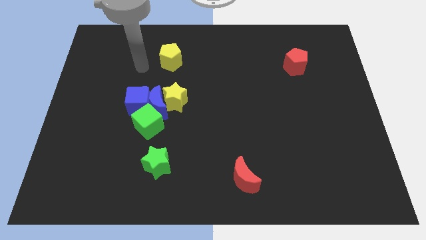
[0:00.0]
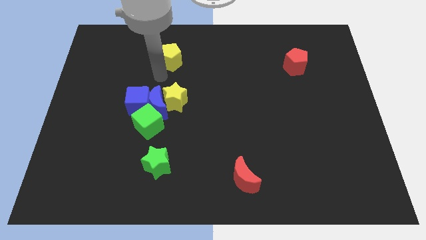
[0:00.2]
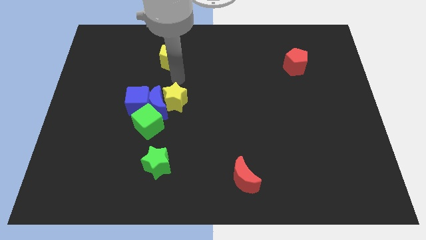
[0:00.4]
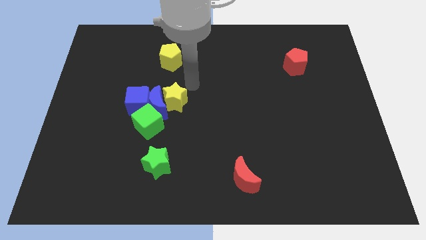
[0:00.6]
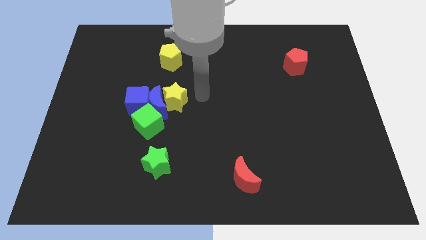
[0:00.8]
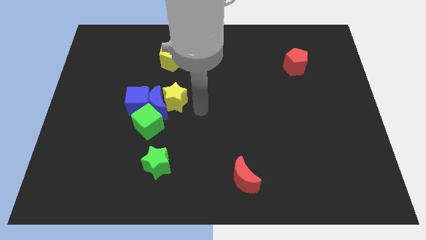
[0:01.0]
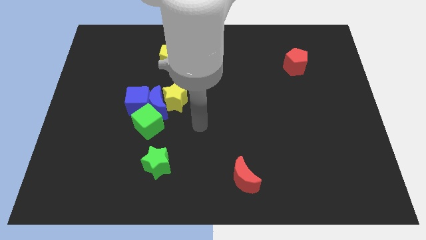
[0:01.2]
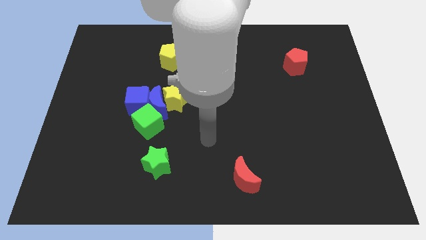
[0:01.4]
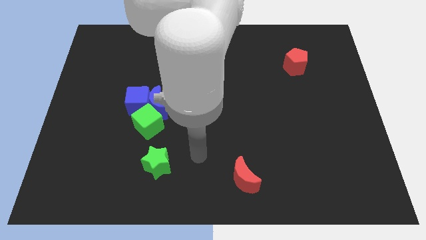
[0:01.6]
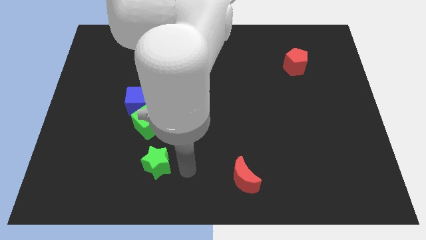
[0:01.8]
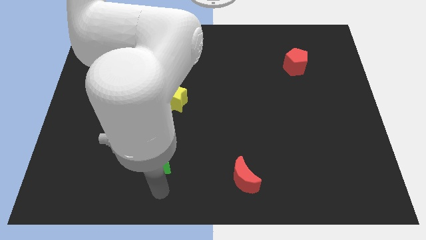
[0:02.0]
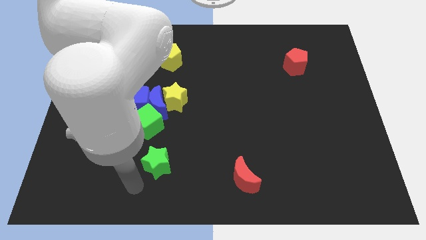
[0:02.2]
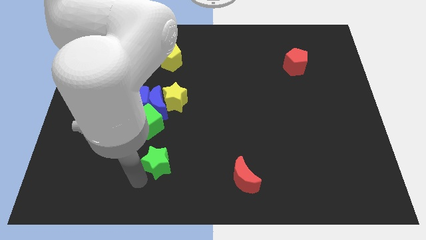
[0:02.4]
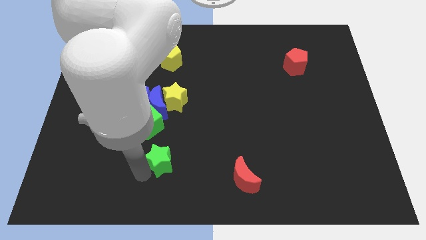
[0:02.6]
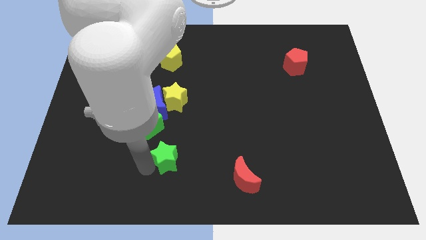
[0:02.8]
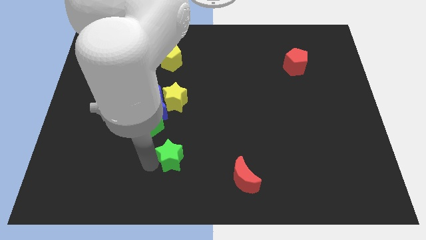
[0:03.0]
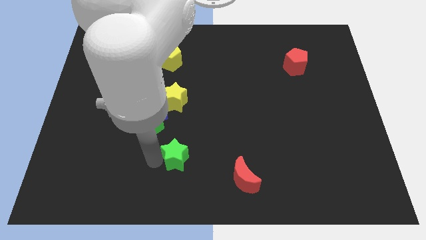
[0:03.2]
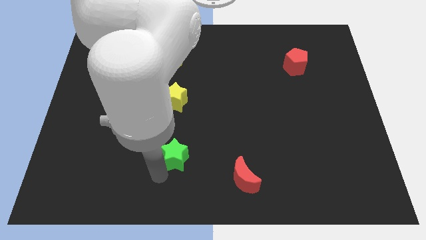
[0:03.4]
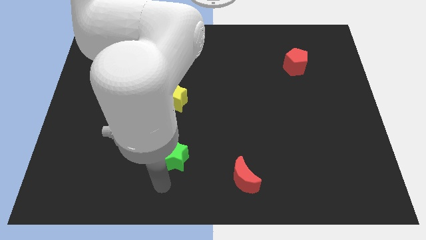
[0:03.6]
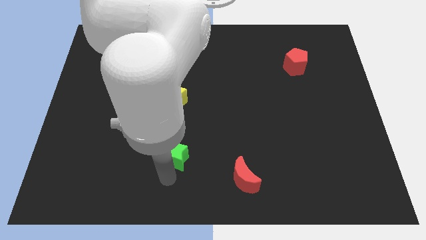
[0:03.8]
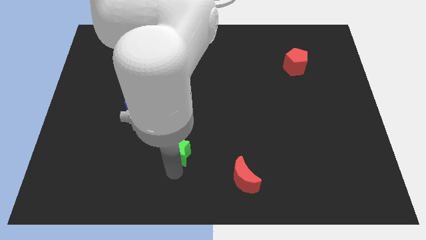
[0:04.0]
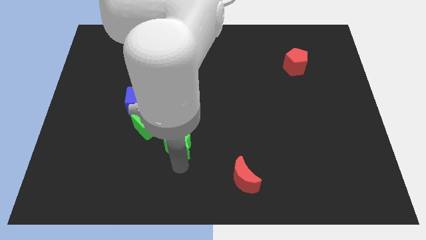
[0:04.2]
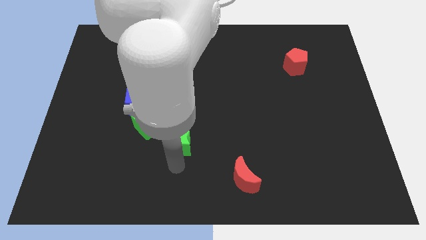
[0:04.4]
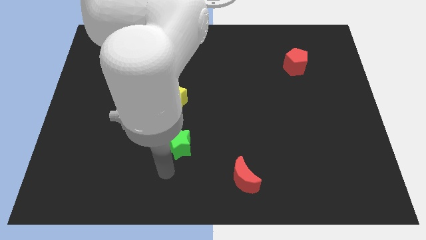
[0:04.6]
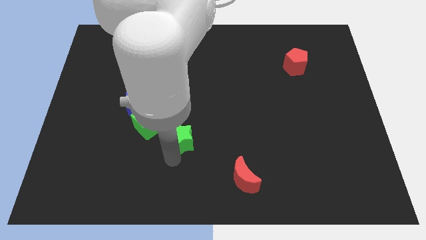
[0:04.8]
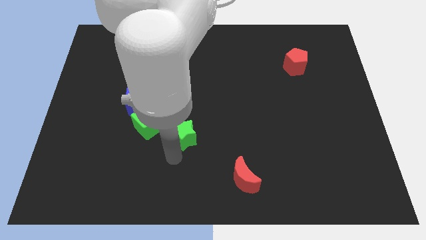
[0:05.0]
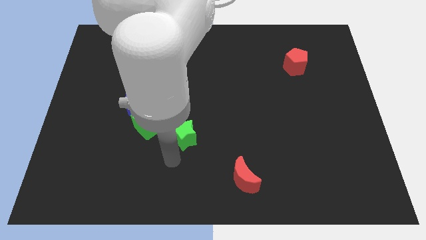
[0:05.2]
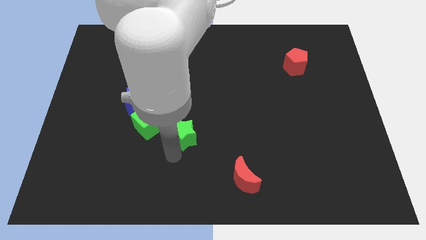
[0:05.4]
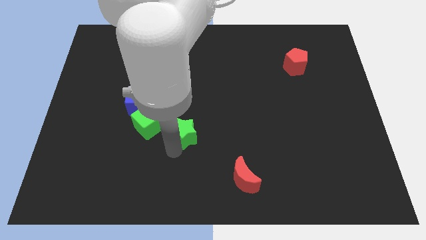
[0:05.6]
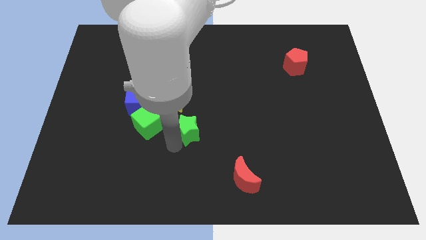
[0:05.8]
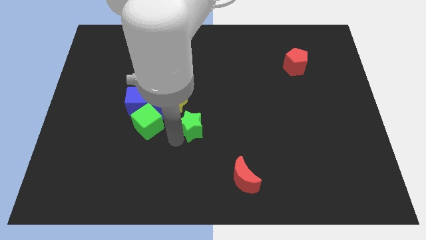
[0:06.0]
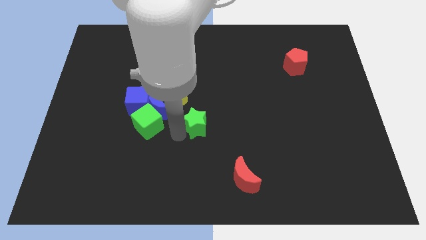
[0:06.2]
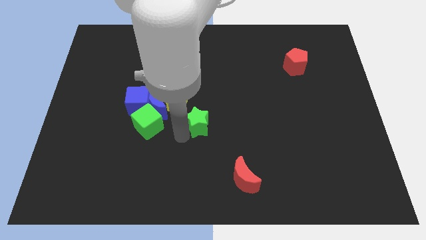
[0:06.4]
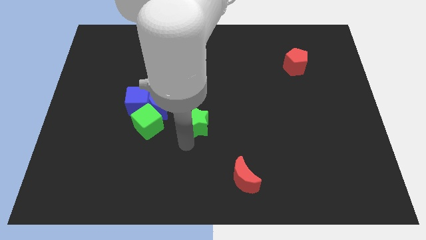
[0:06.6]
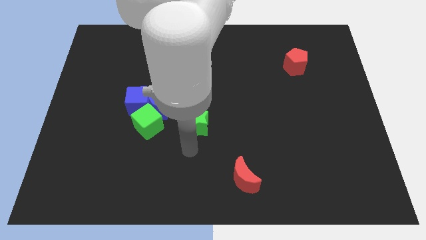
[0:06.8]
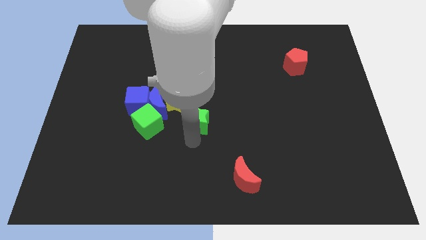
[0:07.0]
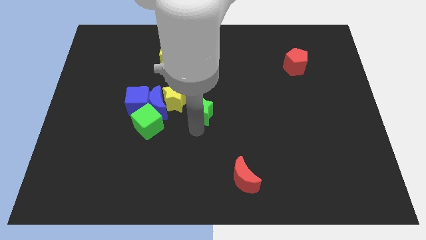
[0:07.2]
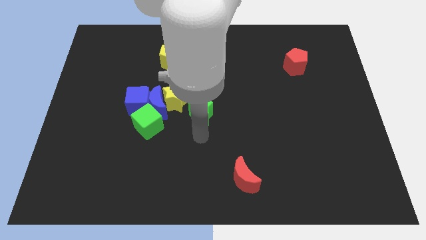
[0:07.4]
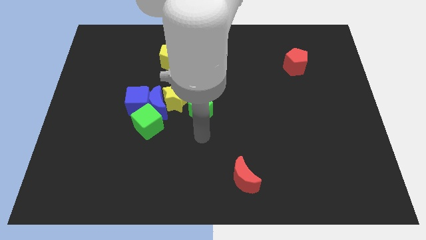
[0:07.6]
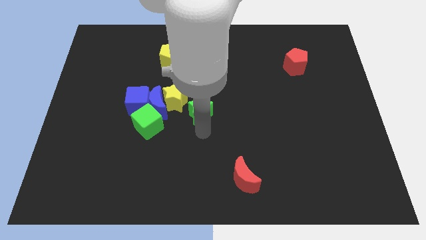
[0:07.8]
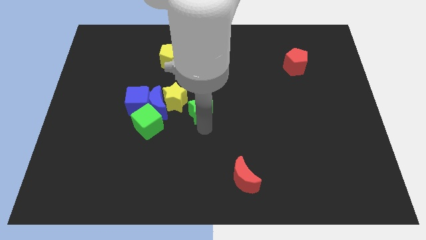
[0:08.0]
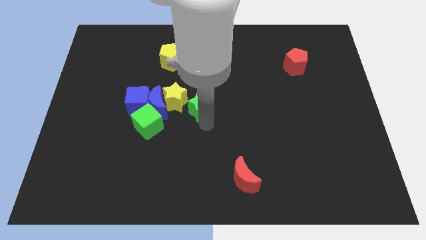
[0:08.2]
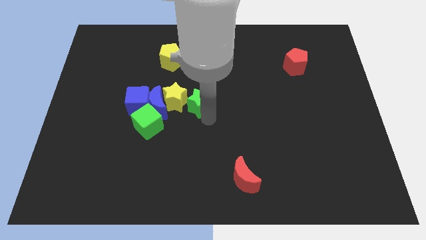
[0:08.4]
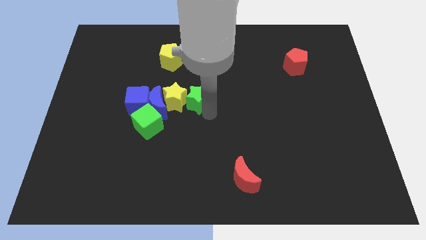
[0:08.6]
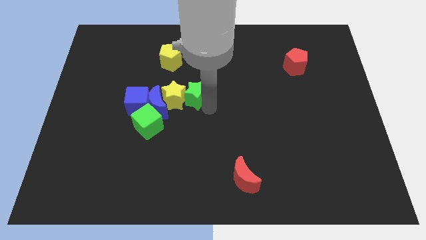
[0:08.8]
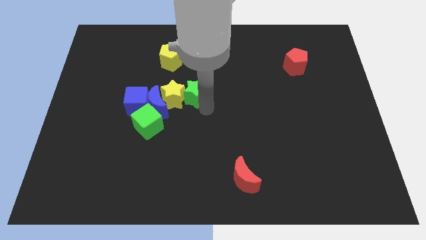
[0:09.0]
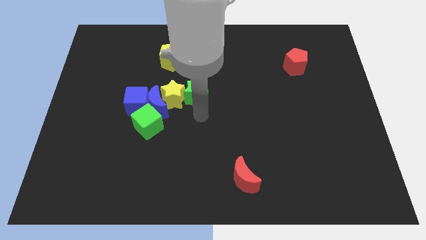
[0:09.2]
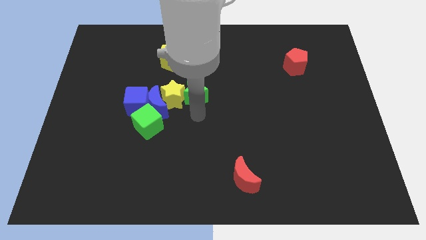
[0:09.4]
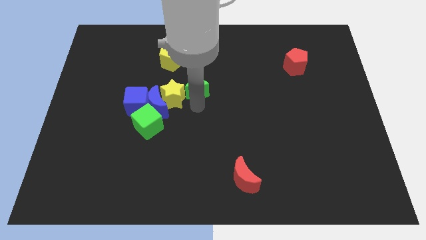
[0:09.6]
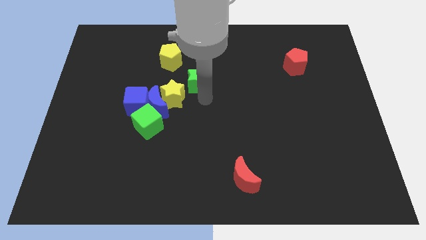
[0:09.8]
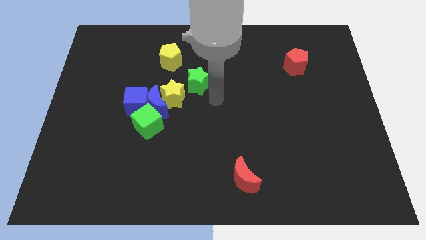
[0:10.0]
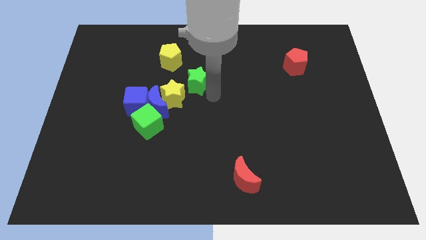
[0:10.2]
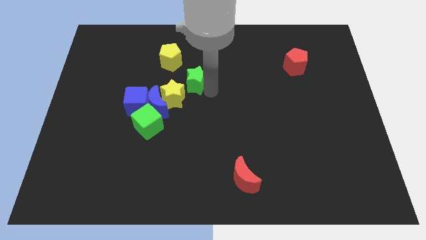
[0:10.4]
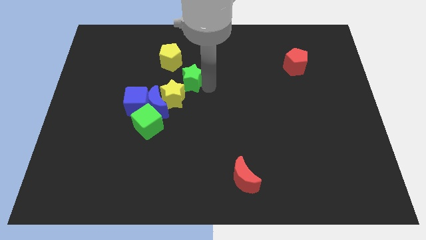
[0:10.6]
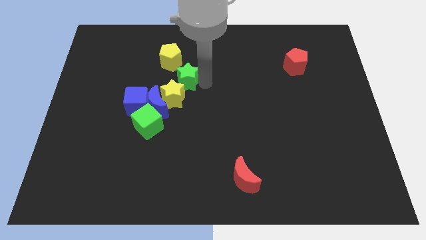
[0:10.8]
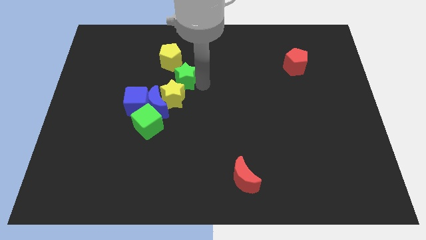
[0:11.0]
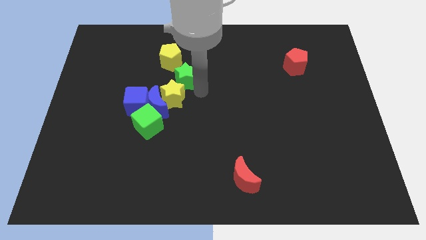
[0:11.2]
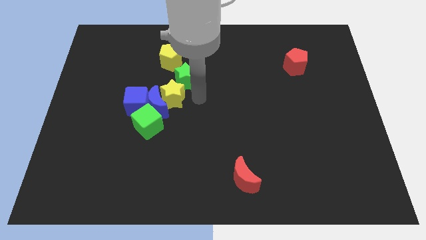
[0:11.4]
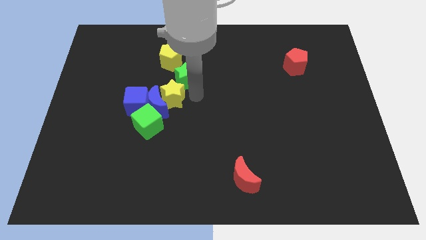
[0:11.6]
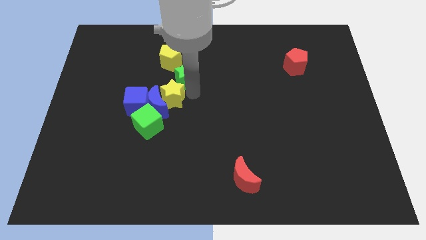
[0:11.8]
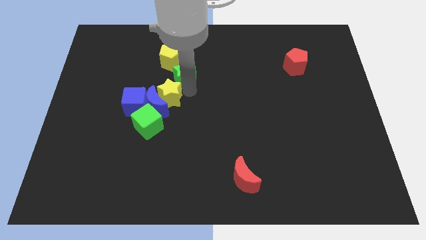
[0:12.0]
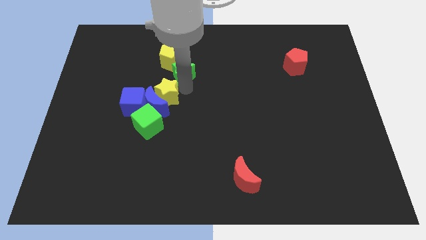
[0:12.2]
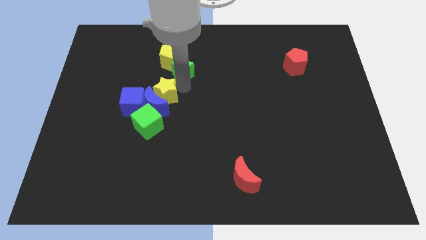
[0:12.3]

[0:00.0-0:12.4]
move the green star close to the yellow pentagon

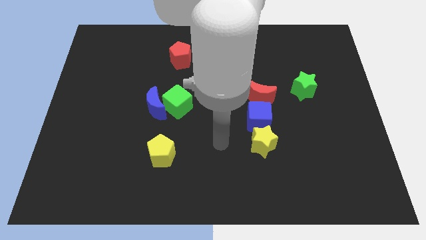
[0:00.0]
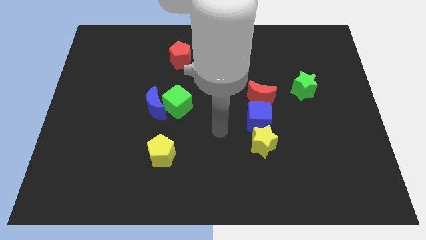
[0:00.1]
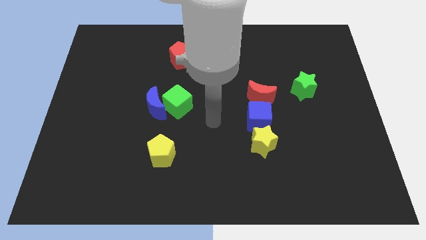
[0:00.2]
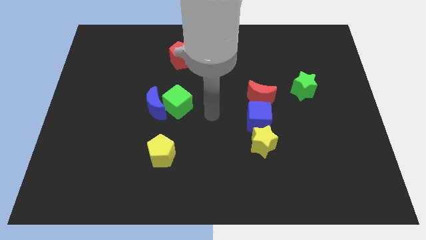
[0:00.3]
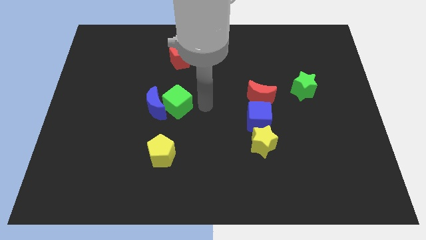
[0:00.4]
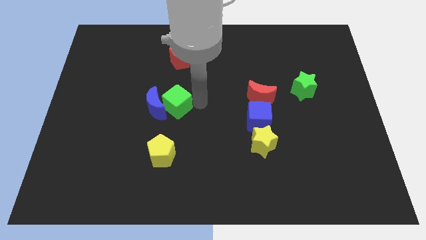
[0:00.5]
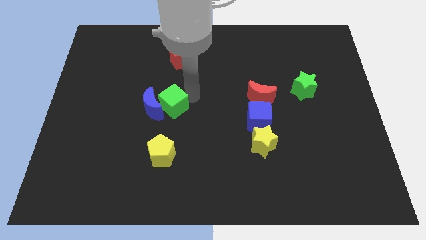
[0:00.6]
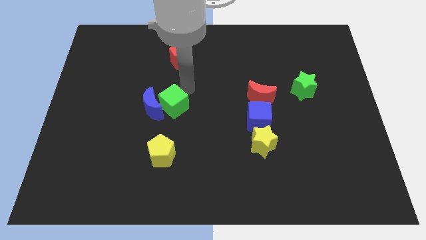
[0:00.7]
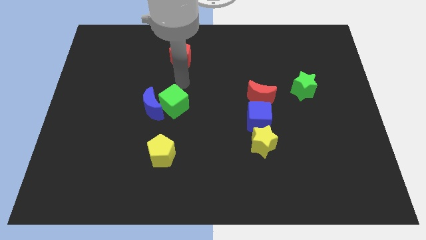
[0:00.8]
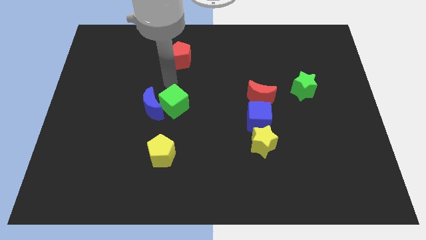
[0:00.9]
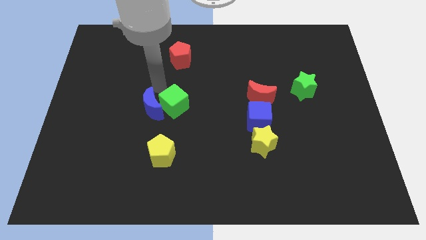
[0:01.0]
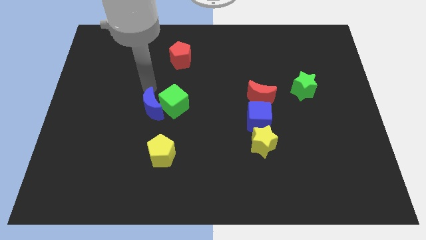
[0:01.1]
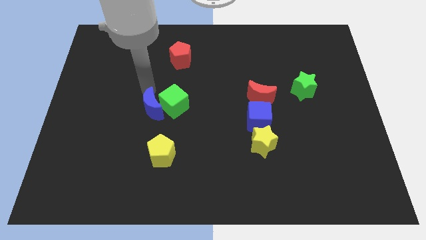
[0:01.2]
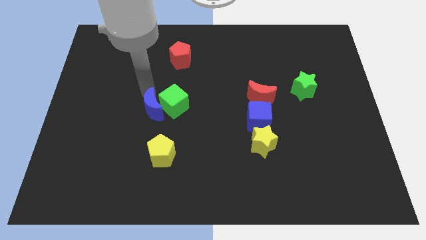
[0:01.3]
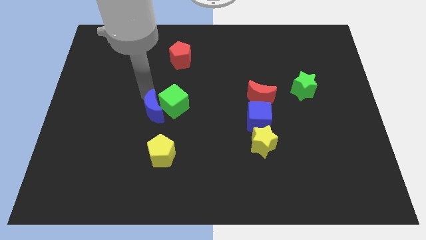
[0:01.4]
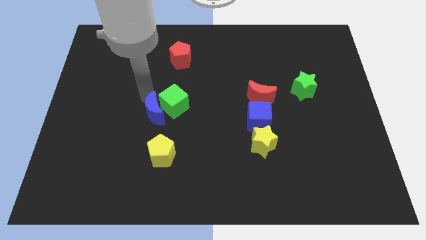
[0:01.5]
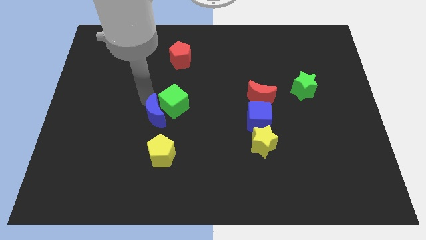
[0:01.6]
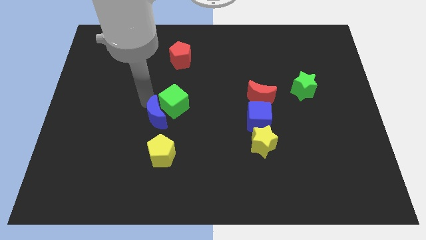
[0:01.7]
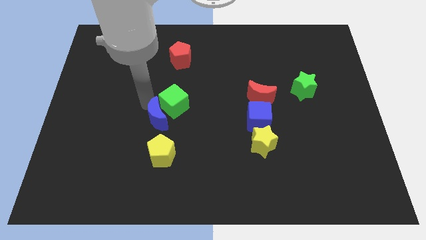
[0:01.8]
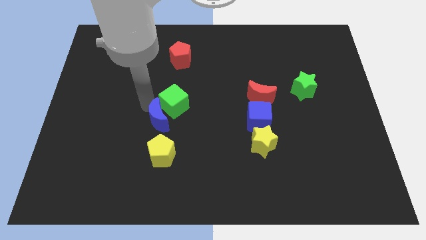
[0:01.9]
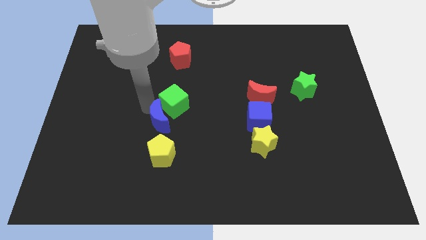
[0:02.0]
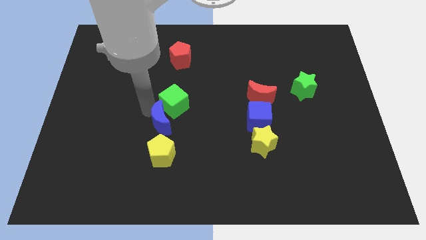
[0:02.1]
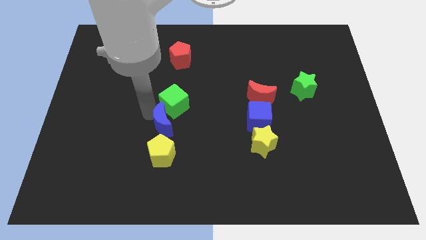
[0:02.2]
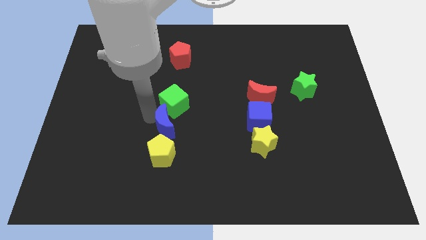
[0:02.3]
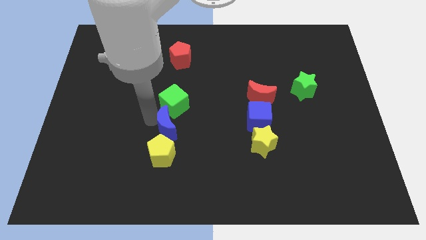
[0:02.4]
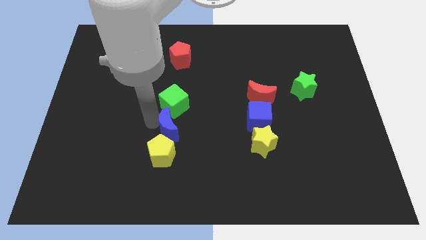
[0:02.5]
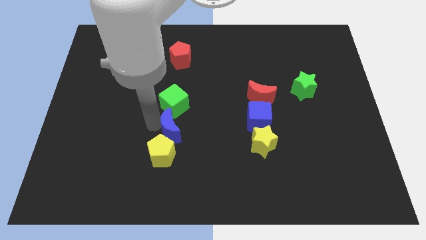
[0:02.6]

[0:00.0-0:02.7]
push the blue moon towards the yellow pentagon
